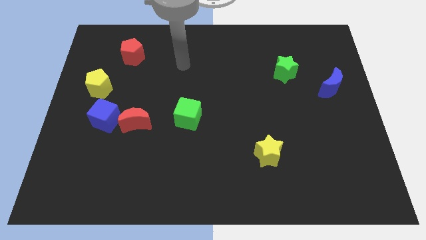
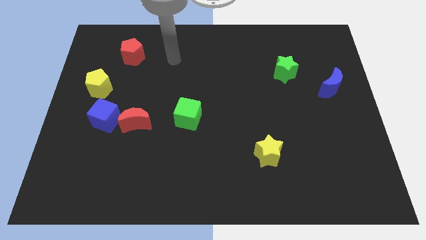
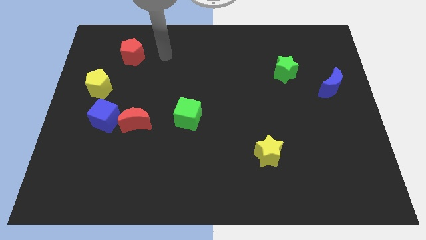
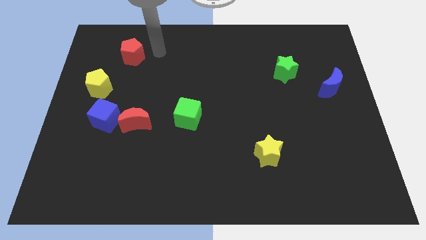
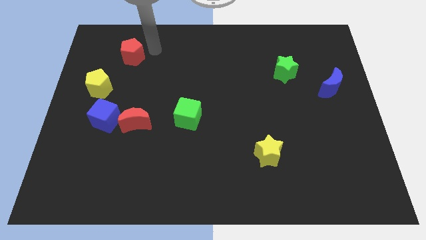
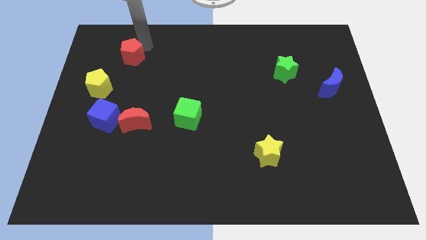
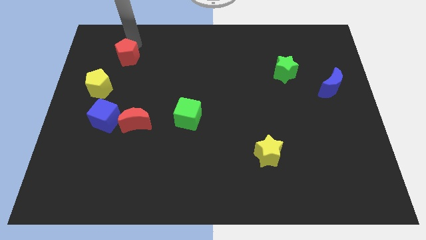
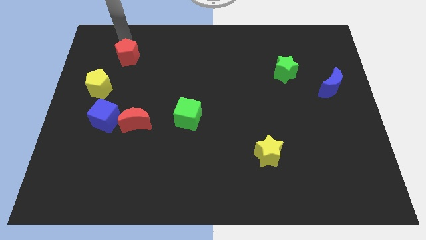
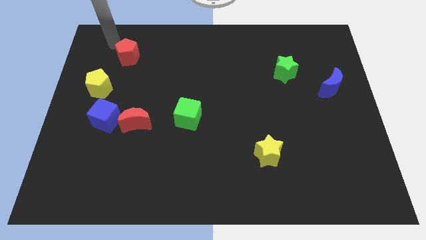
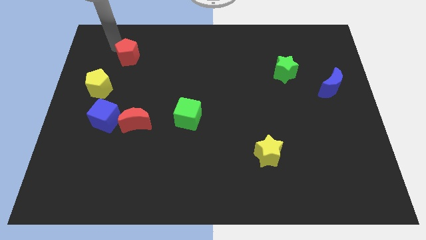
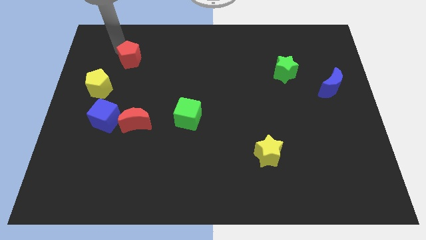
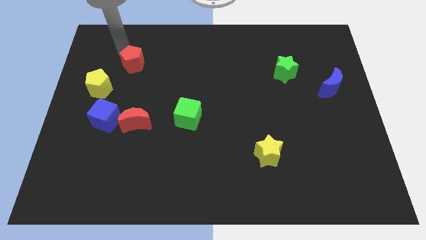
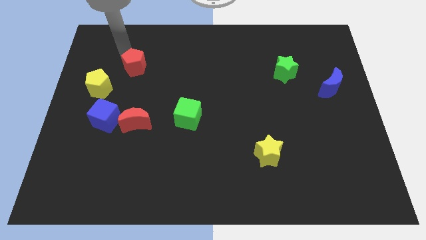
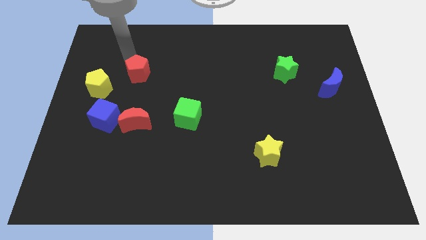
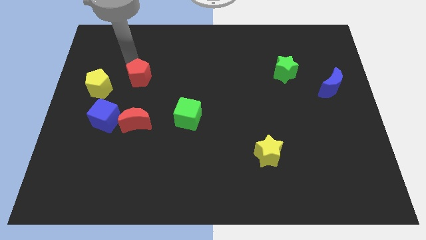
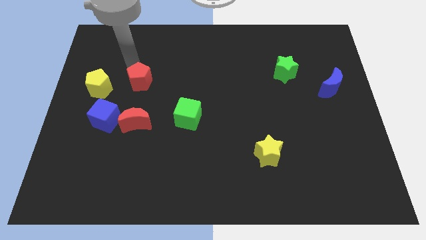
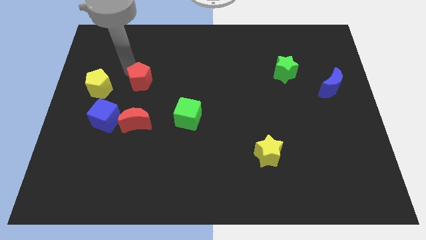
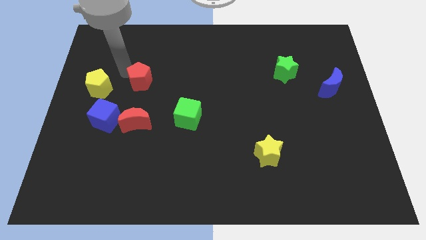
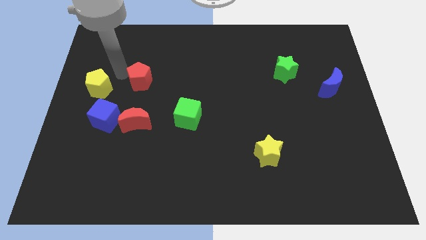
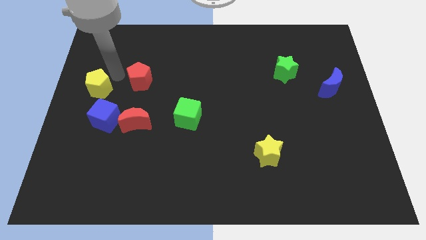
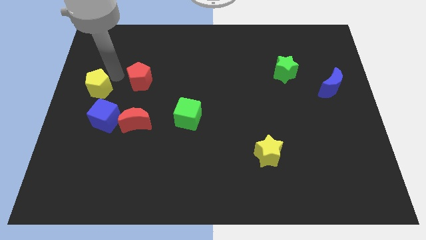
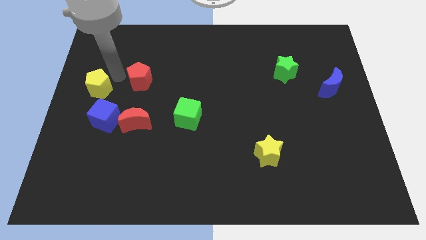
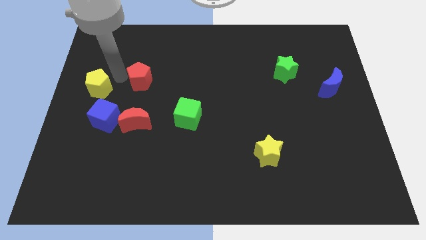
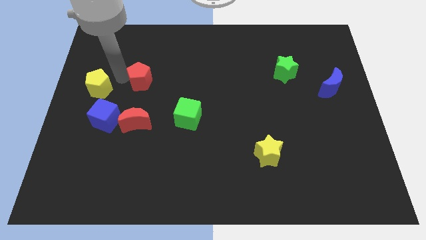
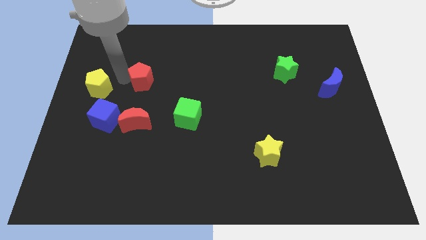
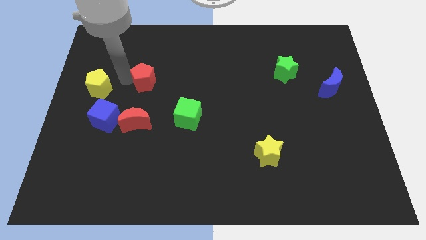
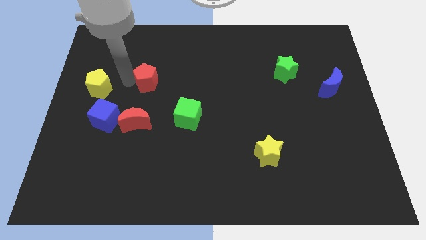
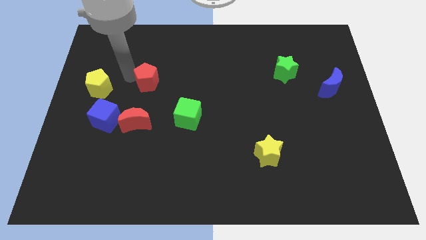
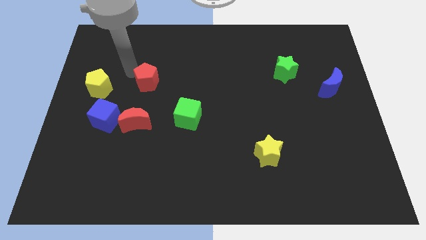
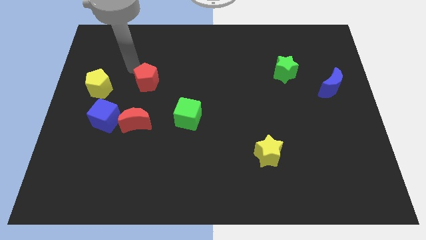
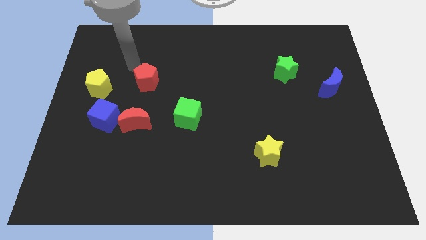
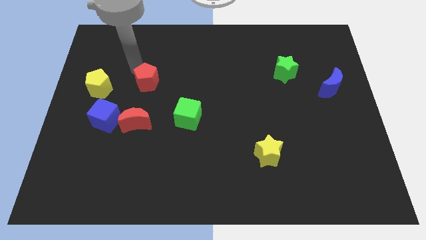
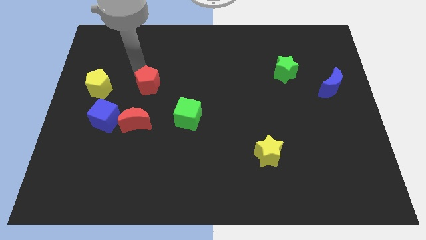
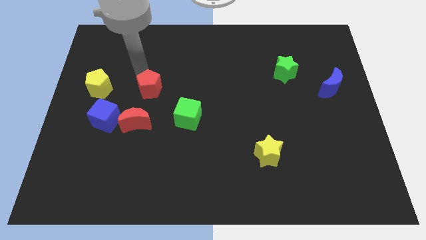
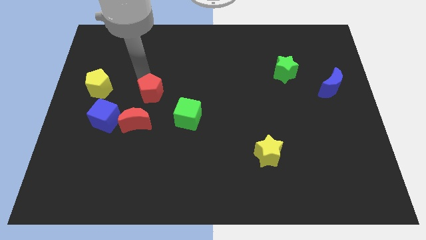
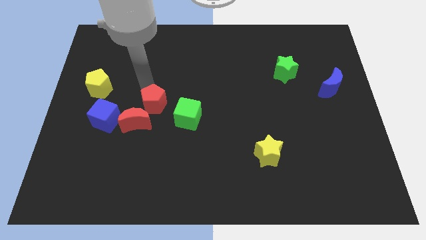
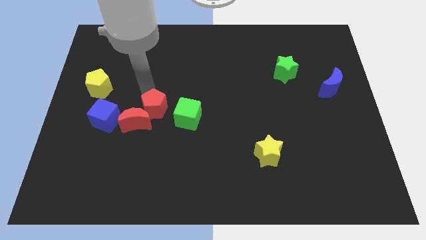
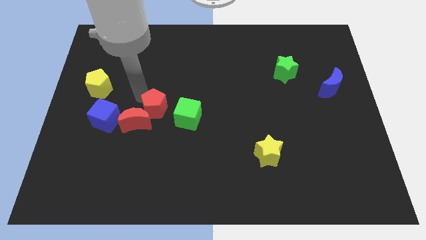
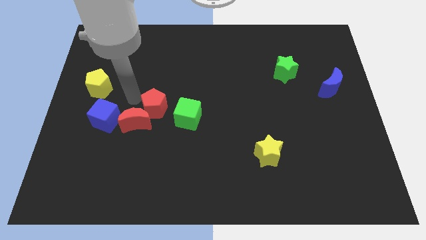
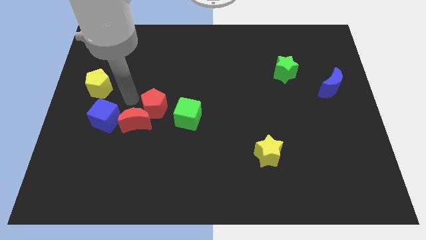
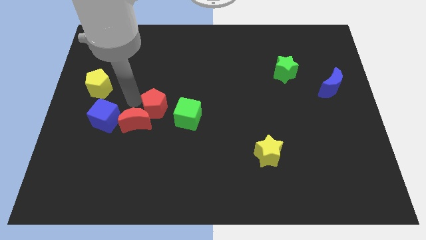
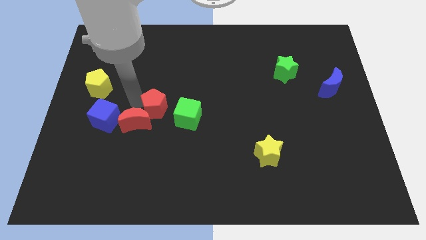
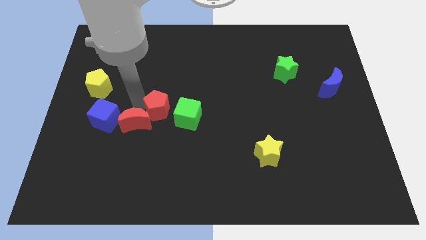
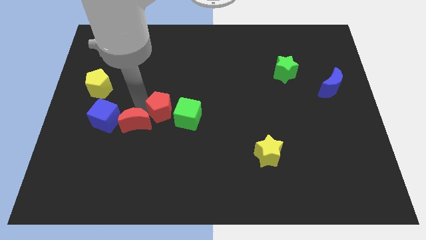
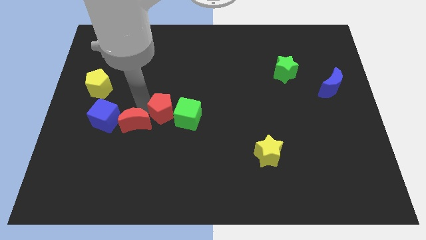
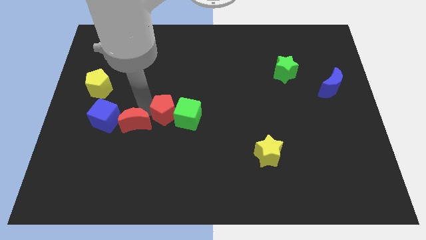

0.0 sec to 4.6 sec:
put the red pentagon next to the green cube

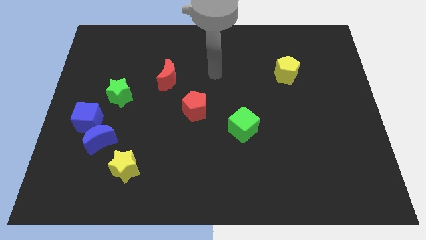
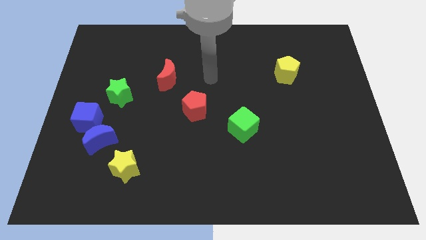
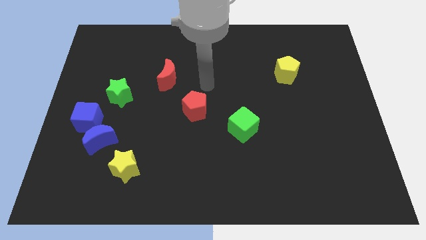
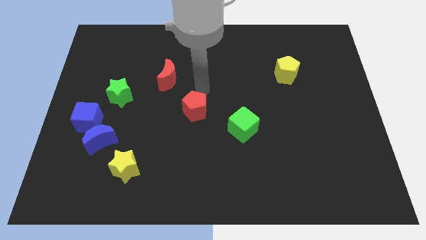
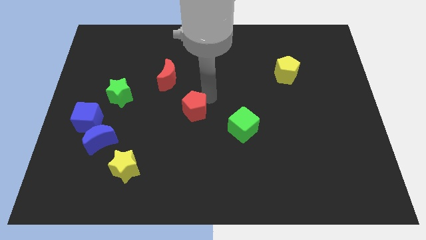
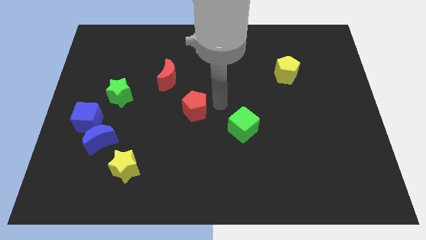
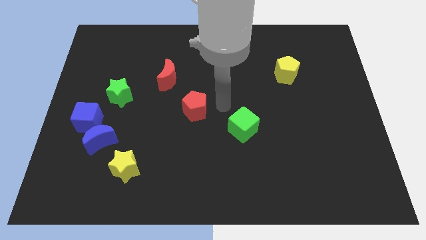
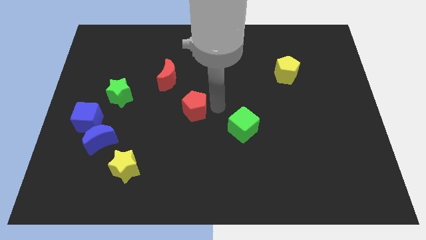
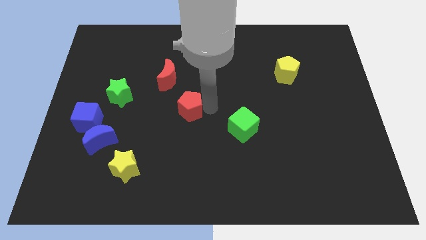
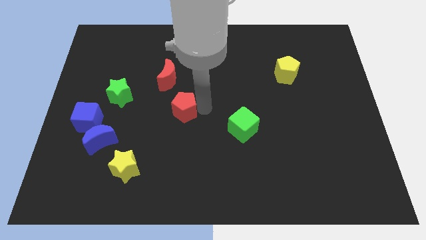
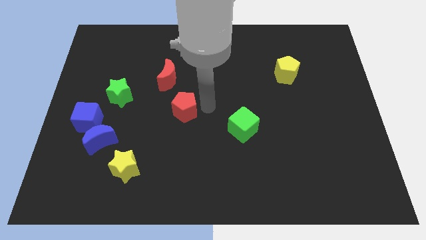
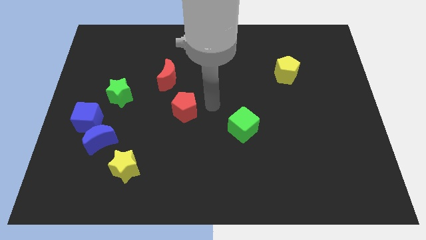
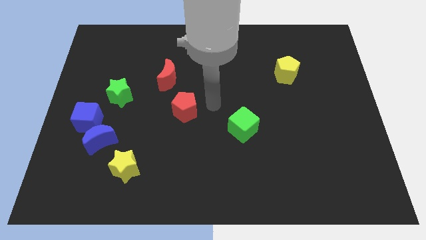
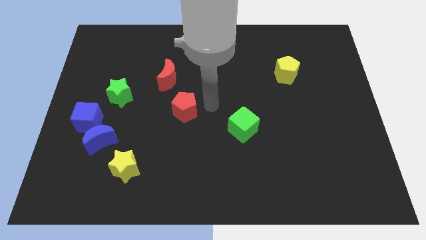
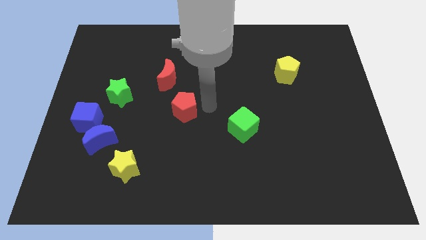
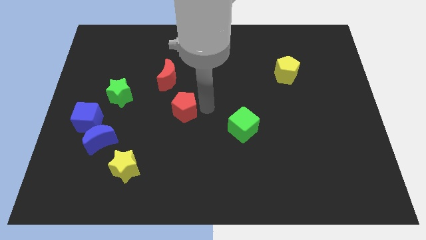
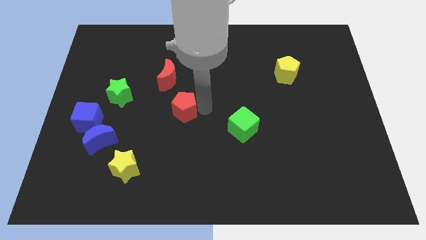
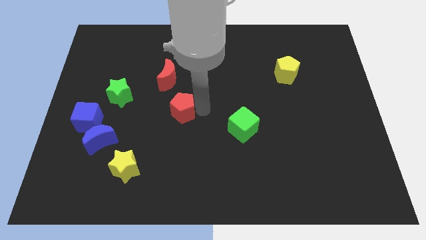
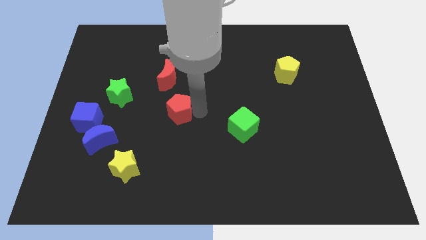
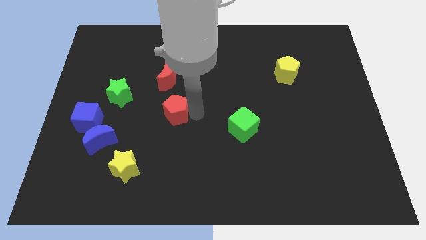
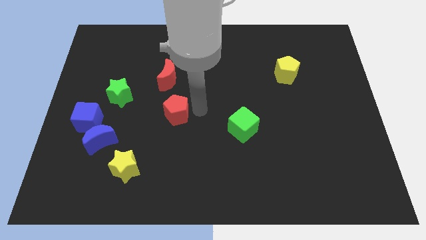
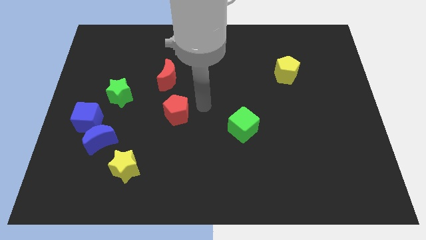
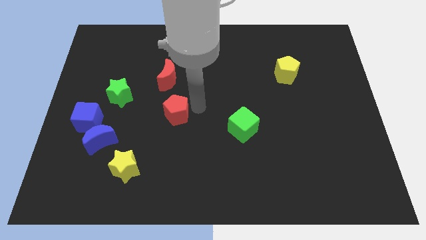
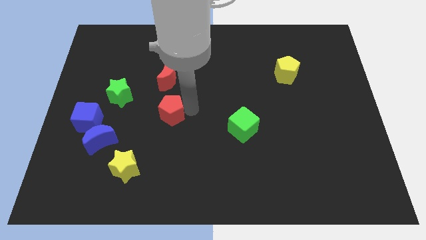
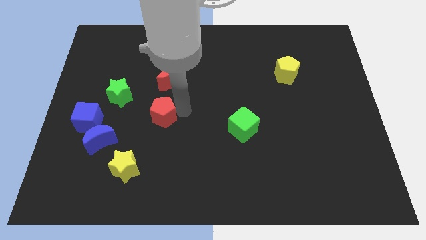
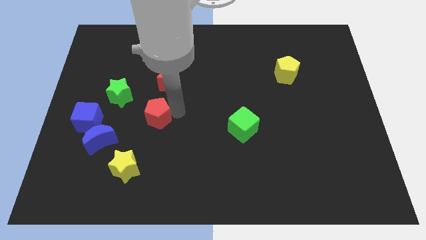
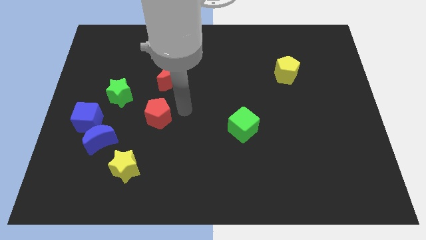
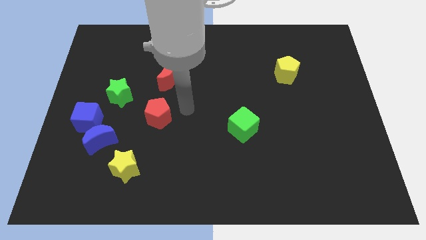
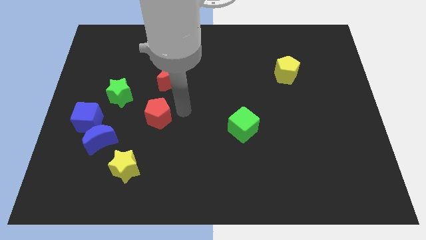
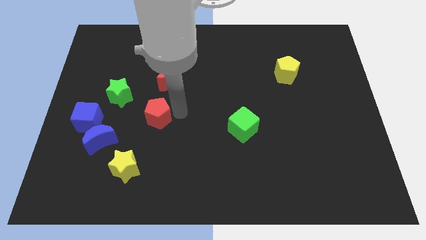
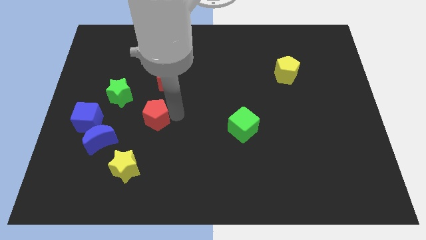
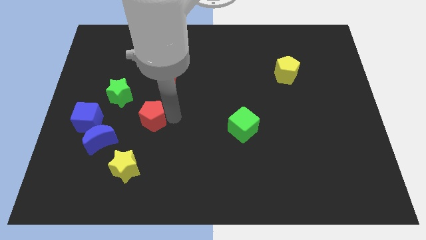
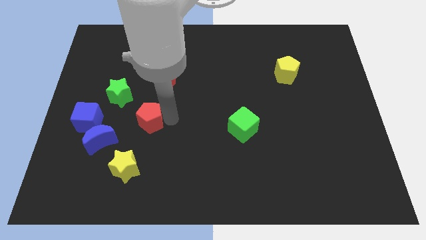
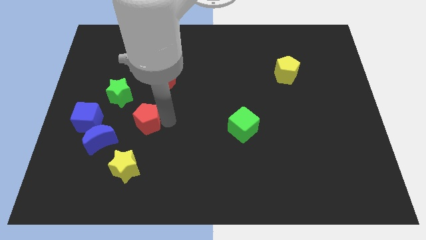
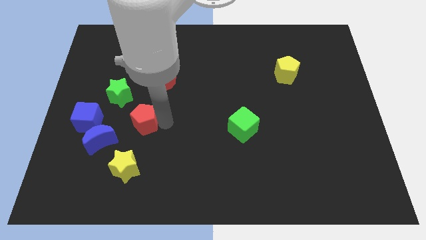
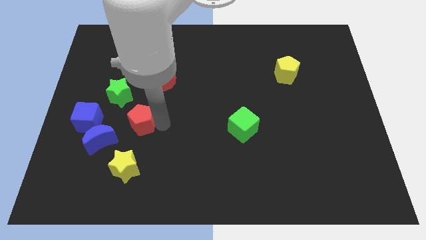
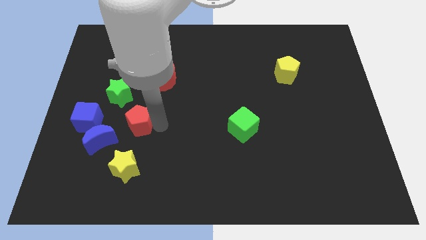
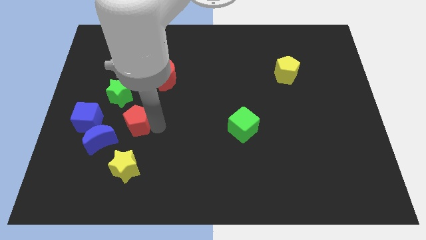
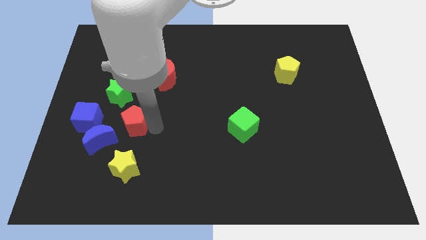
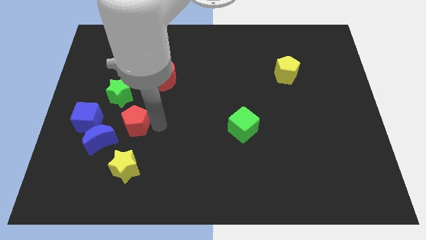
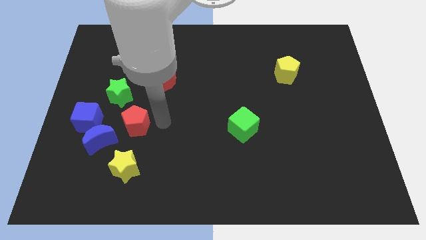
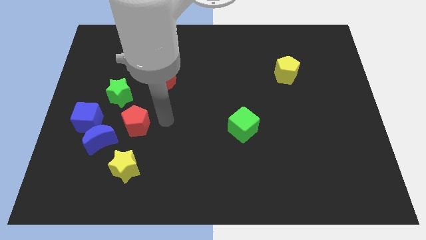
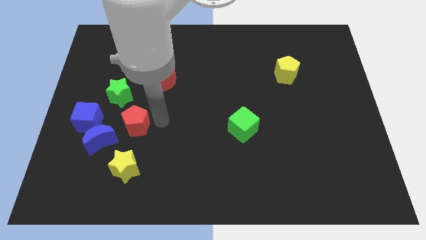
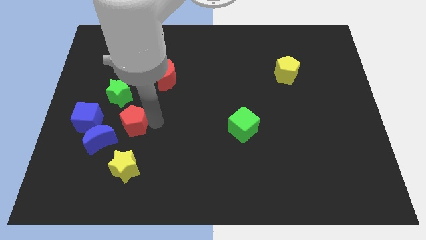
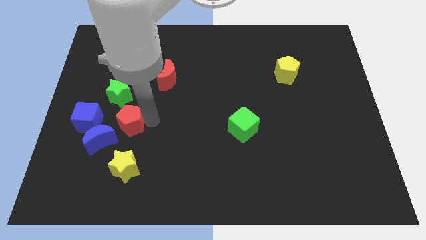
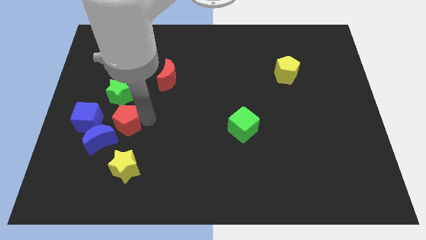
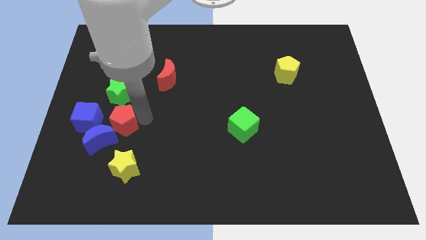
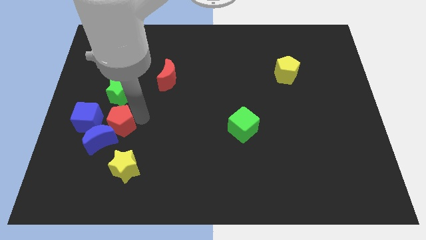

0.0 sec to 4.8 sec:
push the red pentagon to the blue moon
